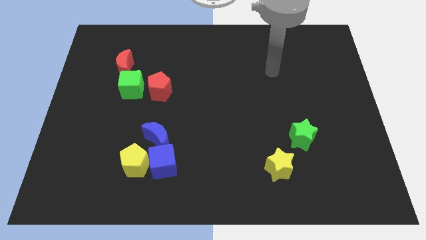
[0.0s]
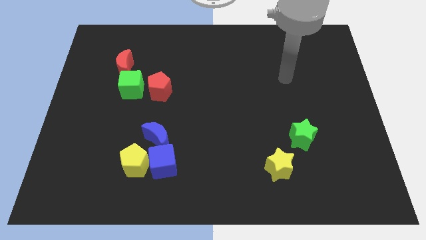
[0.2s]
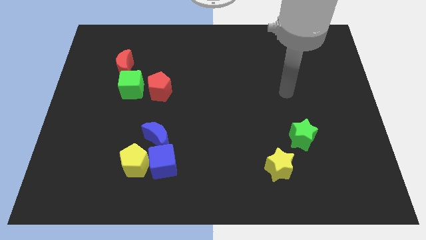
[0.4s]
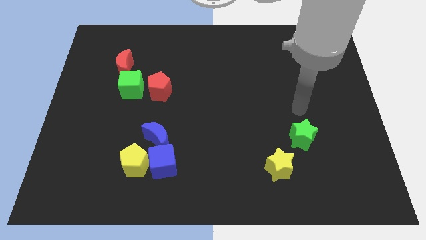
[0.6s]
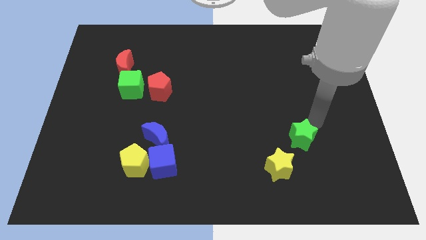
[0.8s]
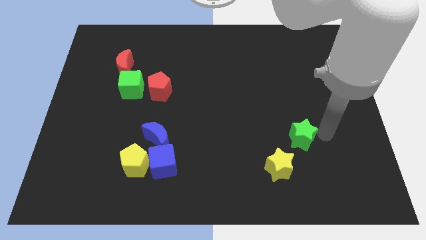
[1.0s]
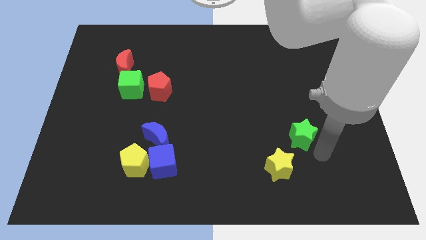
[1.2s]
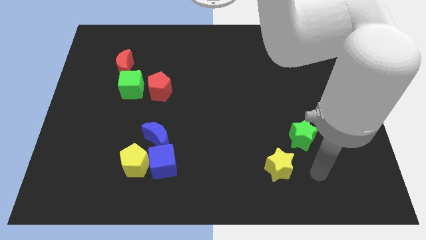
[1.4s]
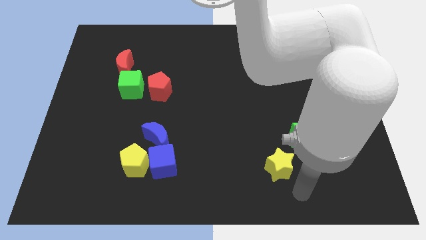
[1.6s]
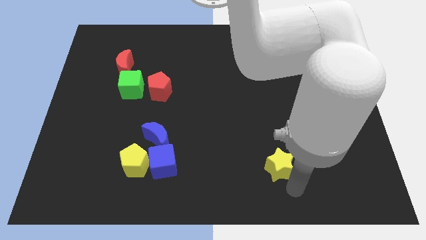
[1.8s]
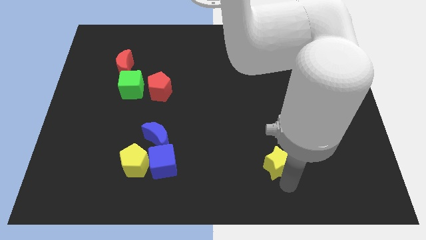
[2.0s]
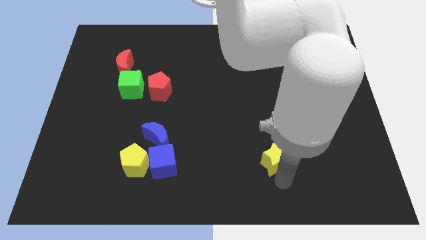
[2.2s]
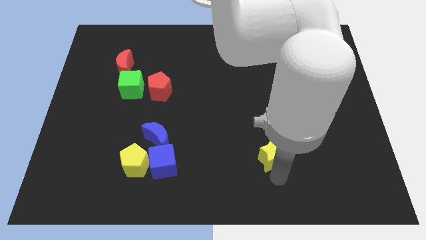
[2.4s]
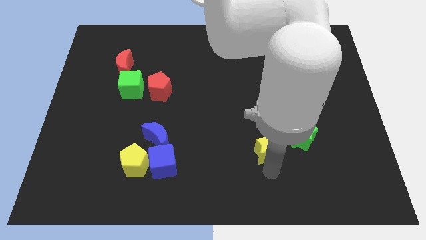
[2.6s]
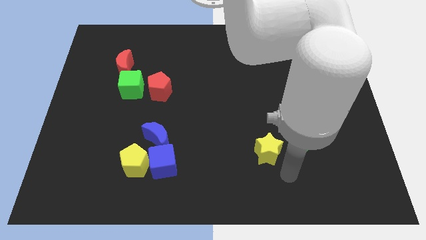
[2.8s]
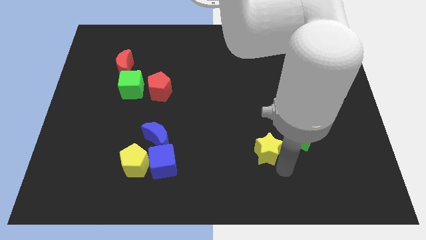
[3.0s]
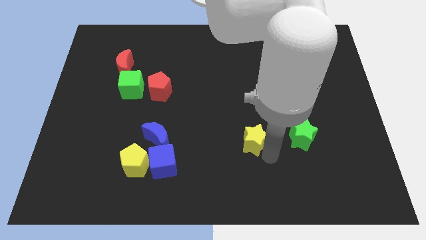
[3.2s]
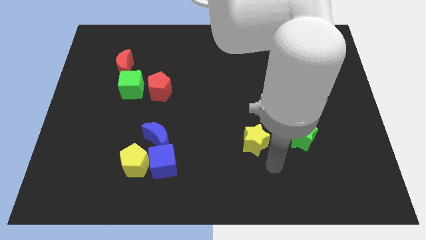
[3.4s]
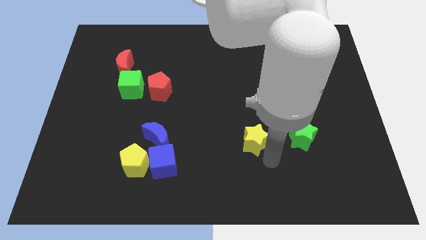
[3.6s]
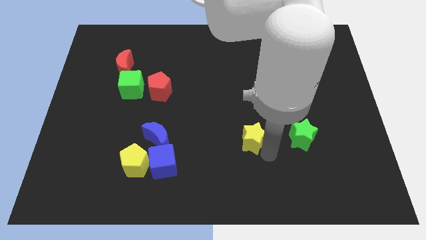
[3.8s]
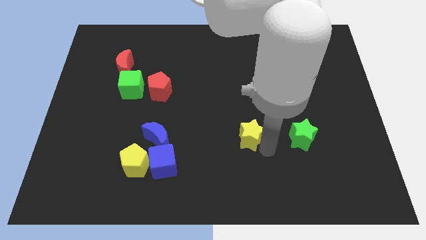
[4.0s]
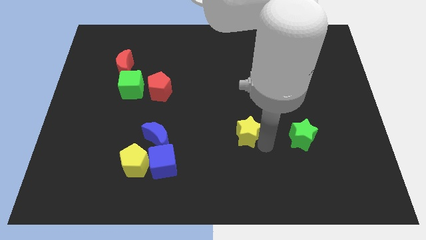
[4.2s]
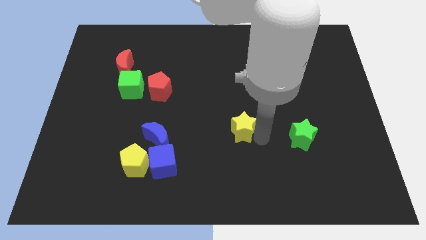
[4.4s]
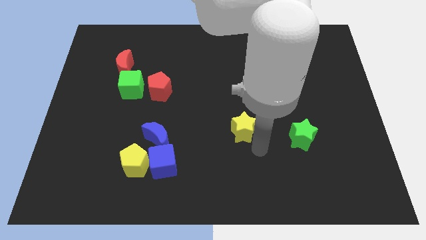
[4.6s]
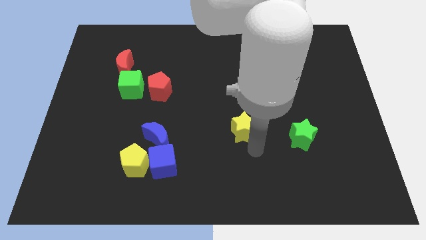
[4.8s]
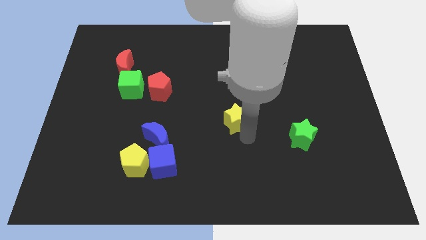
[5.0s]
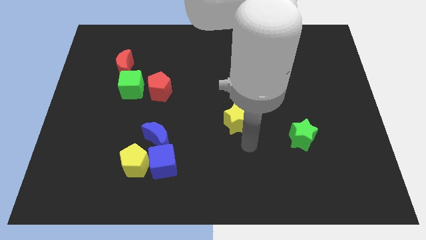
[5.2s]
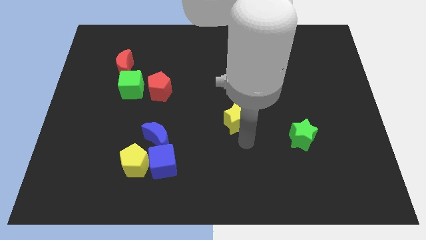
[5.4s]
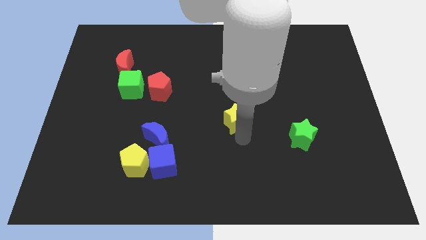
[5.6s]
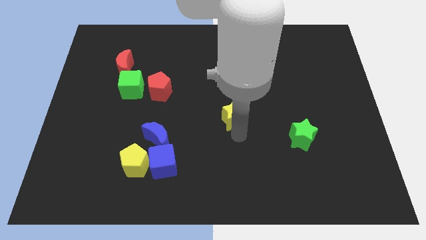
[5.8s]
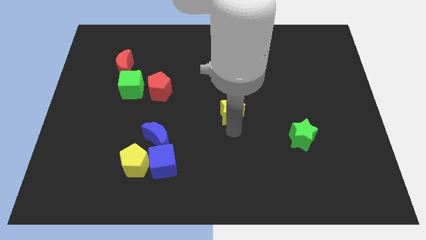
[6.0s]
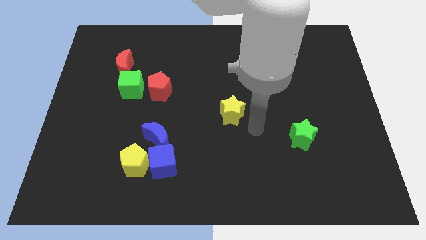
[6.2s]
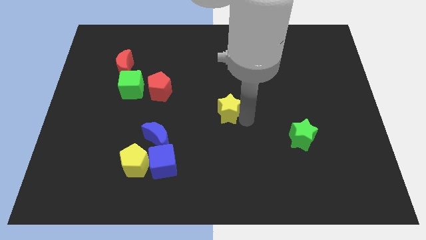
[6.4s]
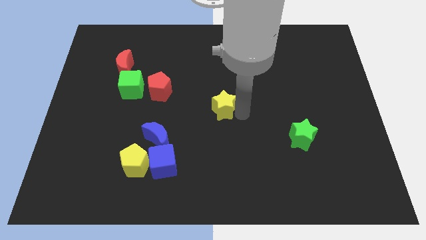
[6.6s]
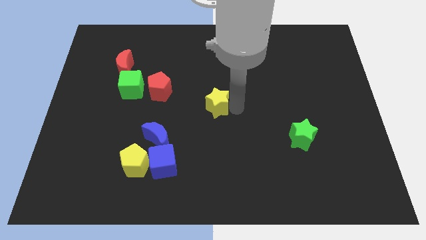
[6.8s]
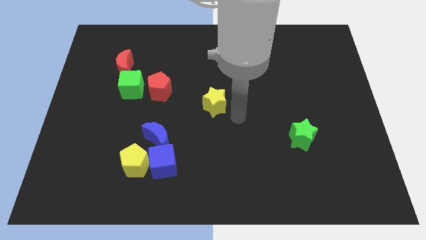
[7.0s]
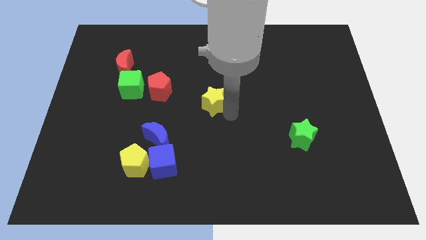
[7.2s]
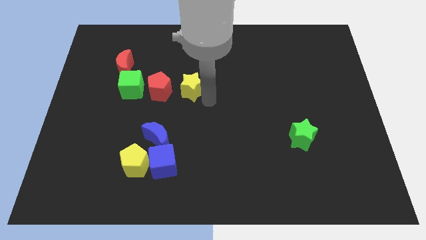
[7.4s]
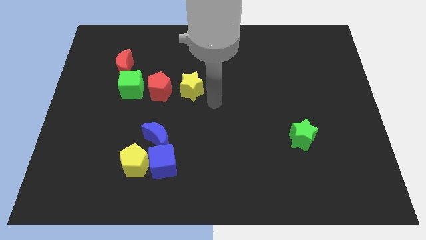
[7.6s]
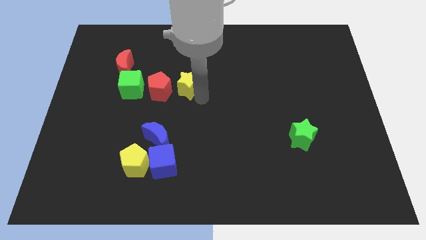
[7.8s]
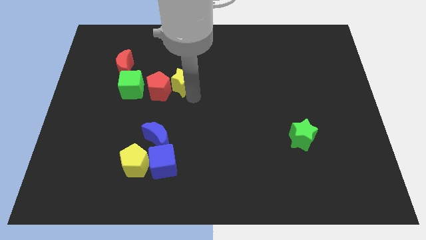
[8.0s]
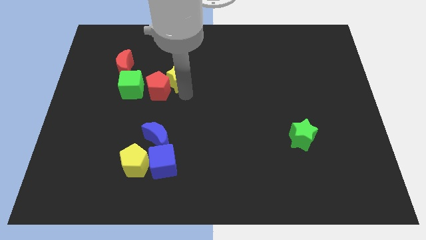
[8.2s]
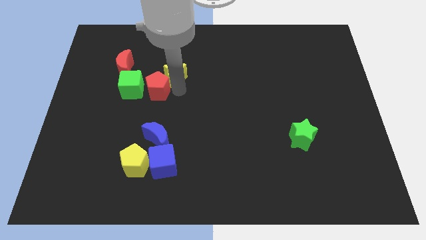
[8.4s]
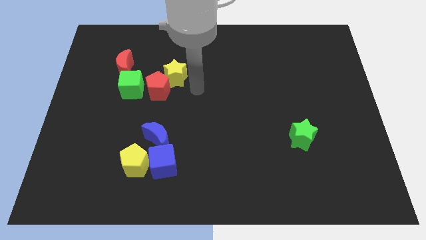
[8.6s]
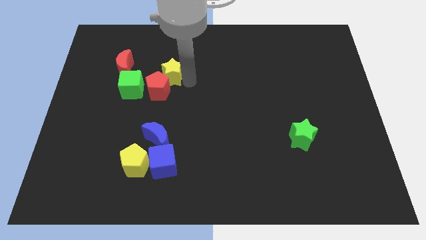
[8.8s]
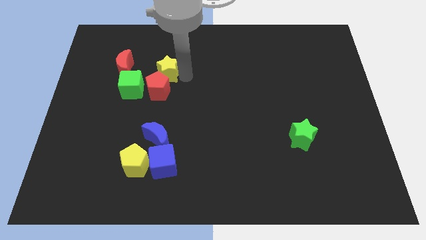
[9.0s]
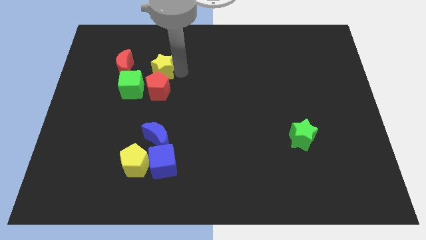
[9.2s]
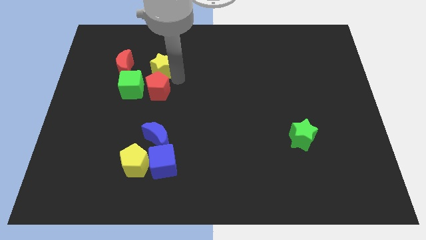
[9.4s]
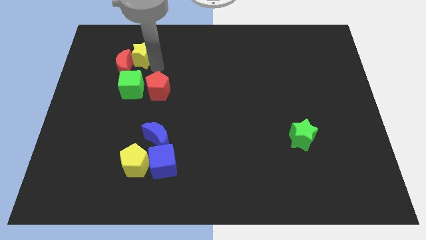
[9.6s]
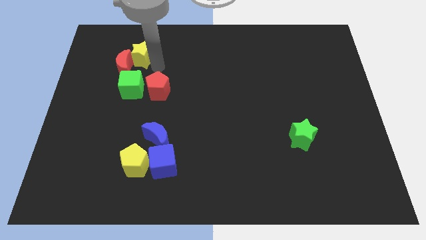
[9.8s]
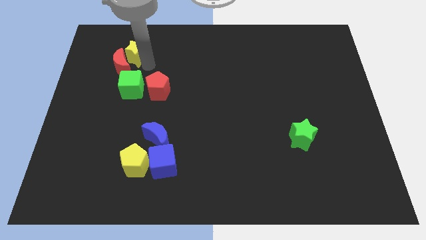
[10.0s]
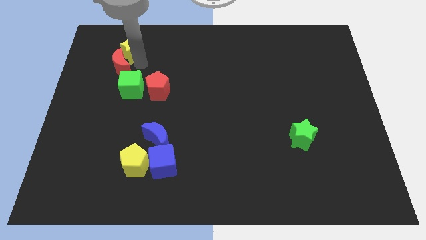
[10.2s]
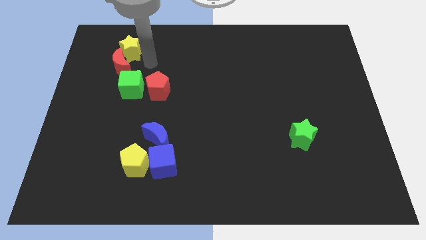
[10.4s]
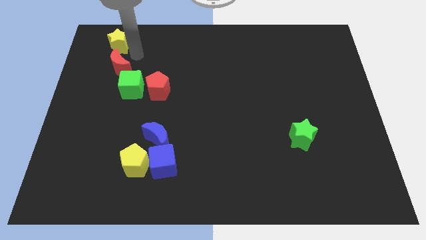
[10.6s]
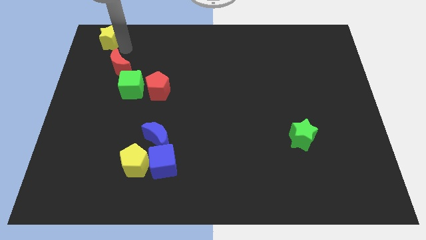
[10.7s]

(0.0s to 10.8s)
move the yellow star to the top left corner

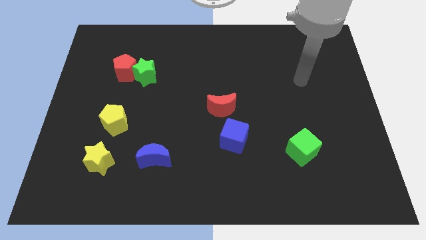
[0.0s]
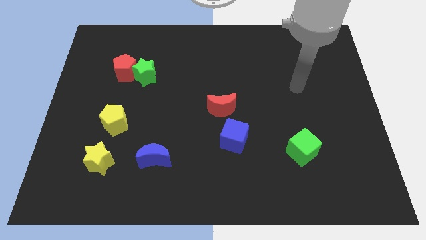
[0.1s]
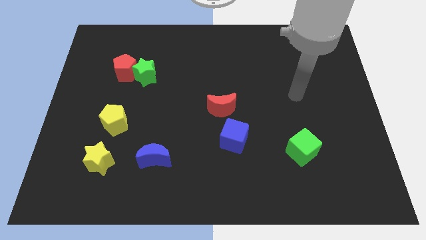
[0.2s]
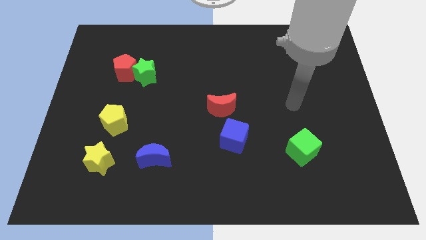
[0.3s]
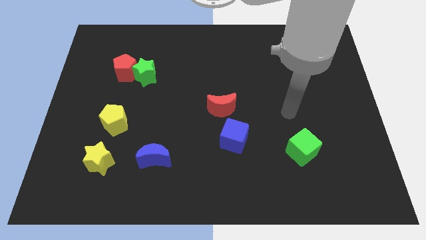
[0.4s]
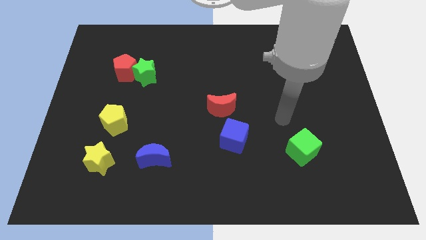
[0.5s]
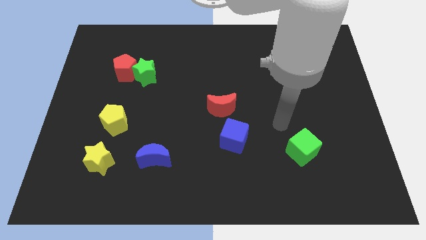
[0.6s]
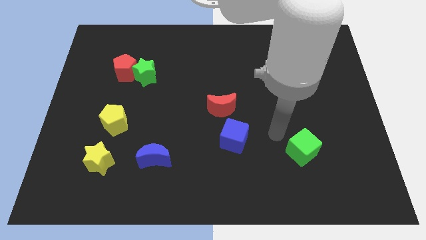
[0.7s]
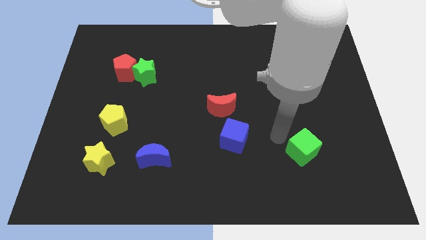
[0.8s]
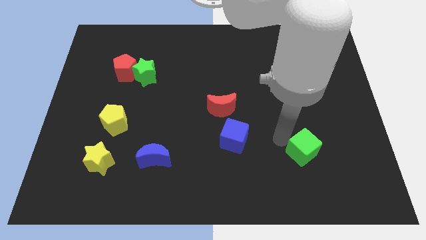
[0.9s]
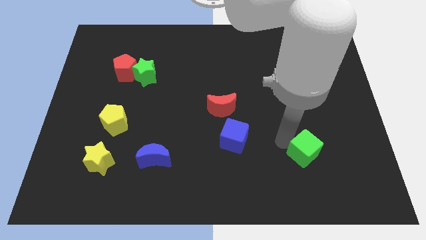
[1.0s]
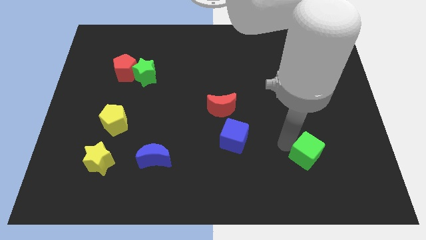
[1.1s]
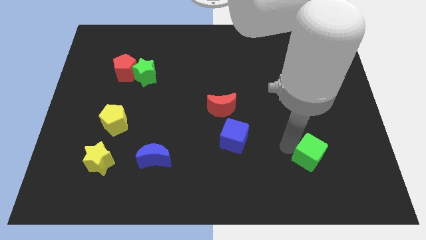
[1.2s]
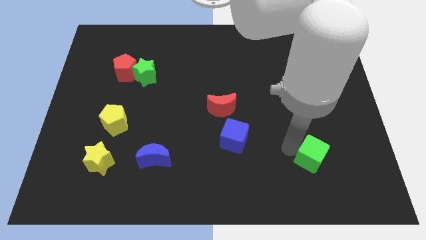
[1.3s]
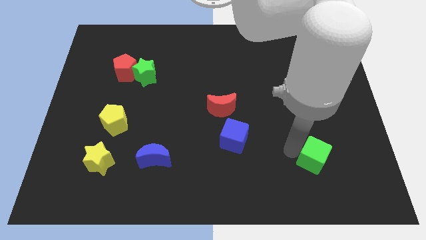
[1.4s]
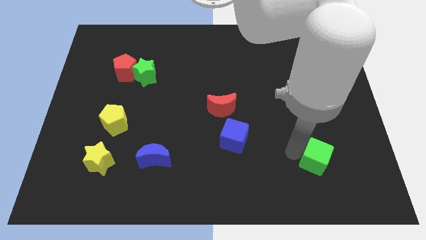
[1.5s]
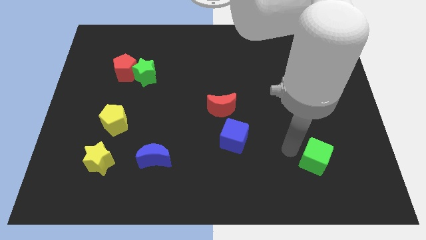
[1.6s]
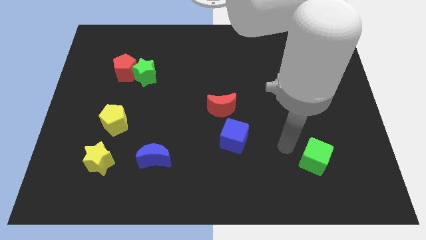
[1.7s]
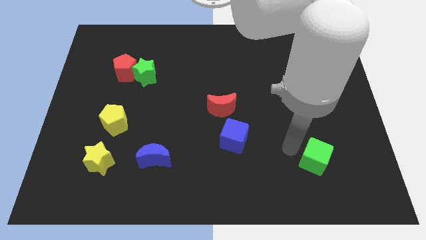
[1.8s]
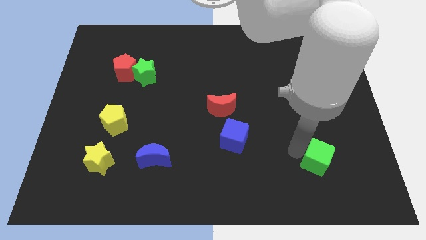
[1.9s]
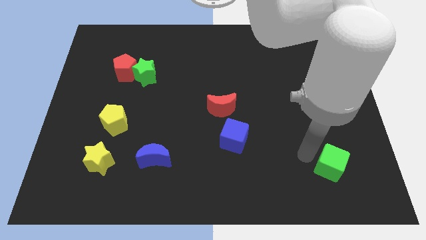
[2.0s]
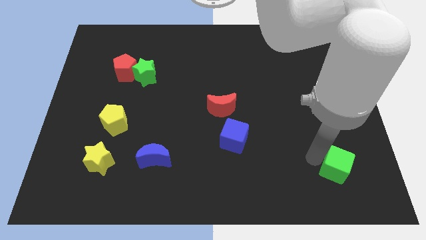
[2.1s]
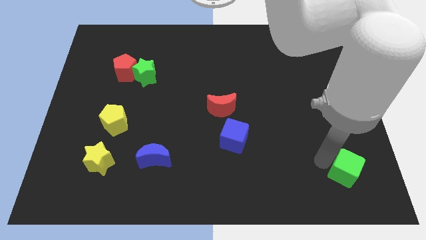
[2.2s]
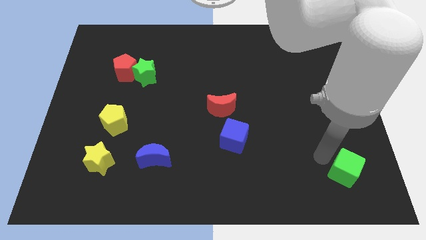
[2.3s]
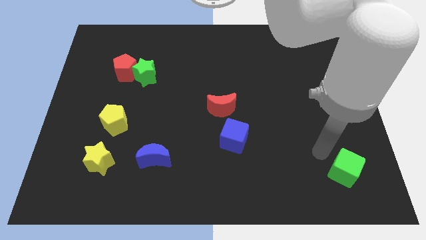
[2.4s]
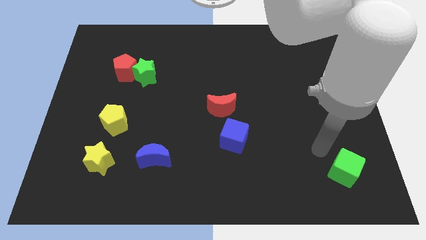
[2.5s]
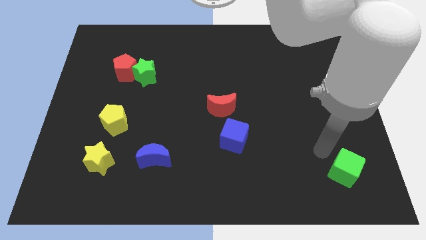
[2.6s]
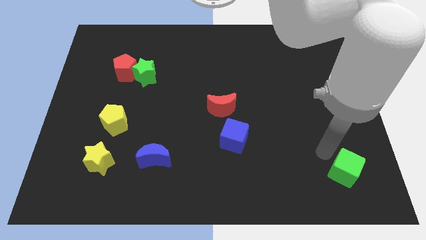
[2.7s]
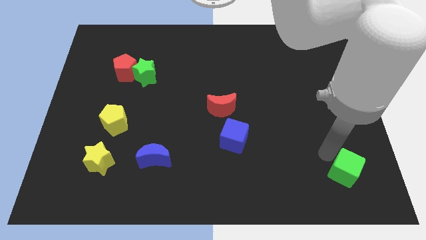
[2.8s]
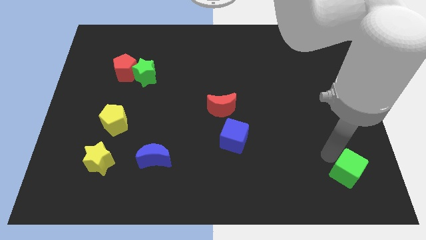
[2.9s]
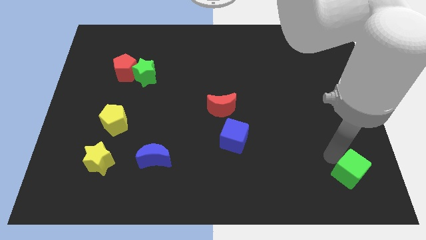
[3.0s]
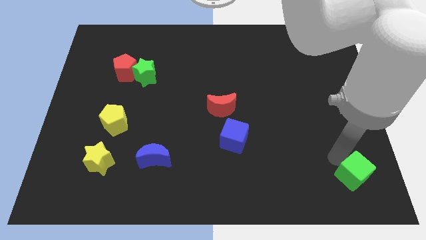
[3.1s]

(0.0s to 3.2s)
put the green cube to the bottom right
